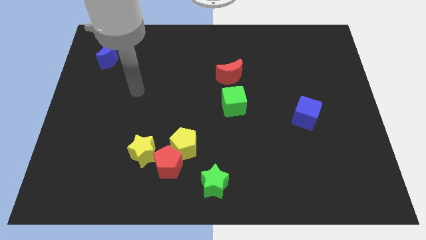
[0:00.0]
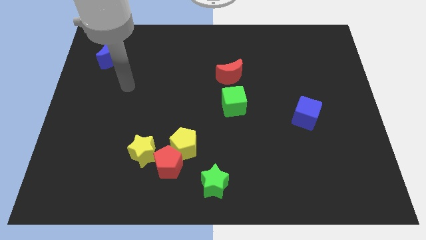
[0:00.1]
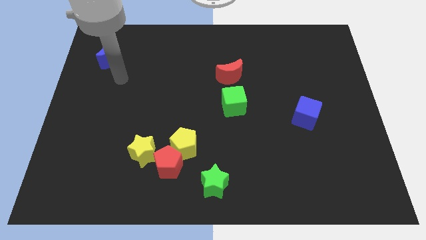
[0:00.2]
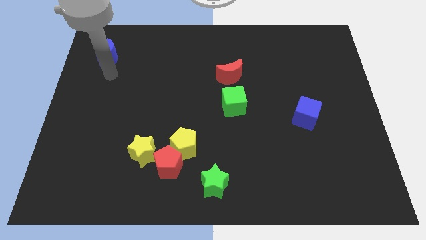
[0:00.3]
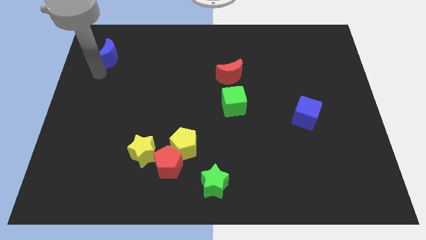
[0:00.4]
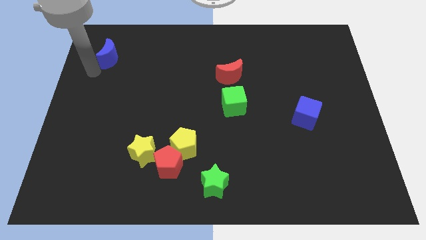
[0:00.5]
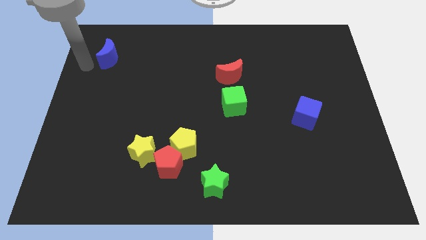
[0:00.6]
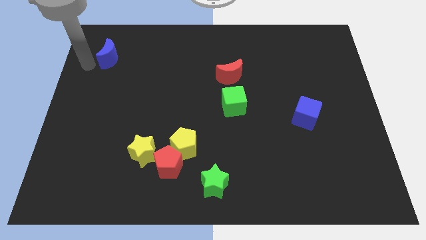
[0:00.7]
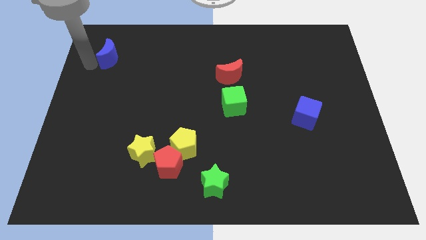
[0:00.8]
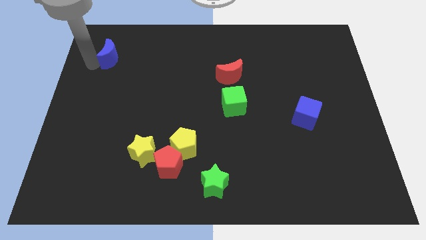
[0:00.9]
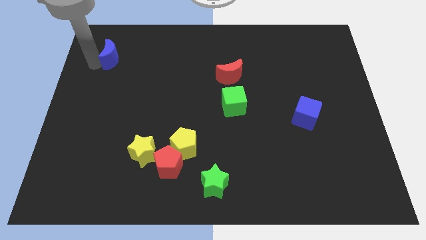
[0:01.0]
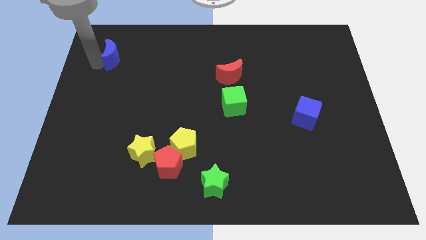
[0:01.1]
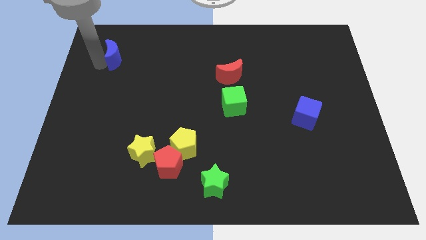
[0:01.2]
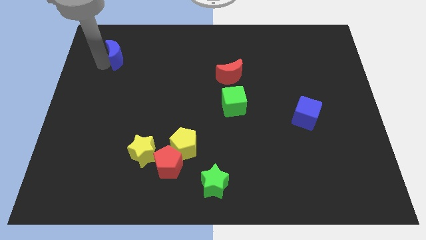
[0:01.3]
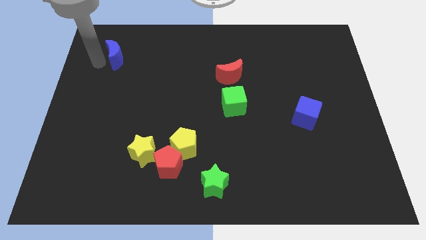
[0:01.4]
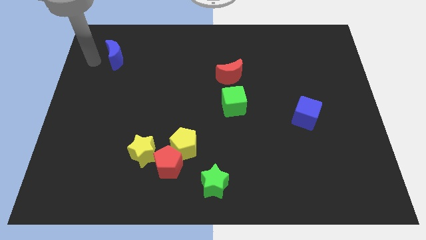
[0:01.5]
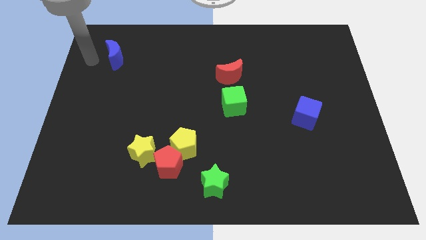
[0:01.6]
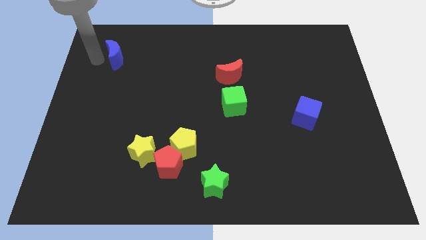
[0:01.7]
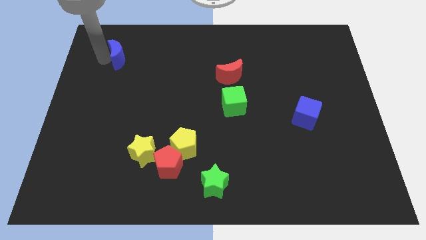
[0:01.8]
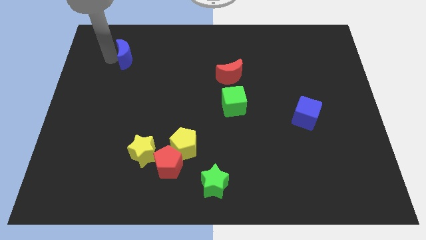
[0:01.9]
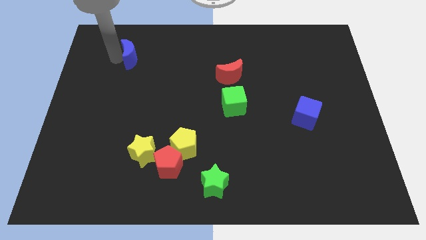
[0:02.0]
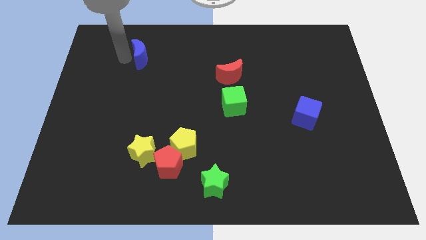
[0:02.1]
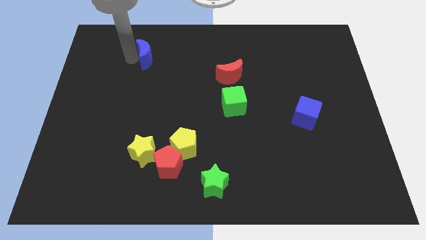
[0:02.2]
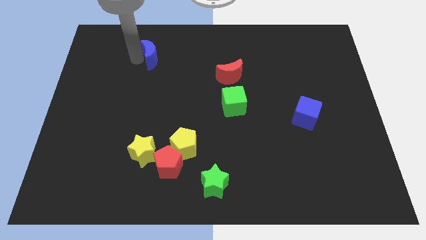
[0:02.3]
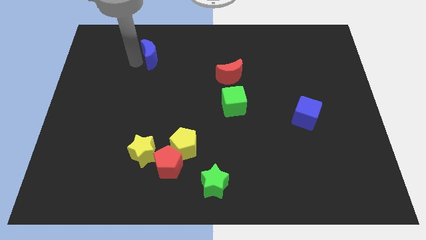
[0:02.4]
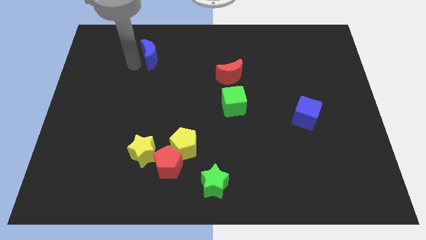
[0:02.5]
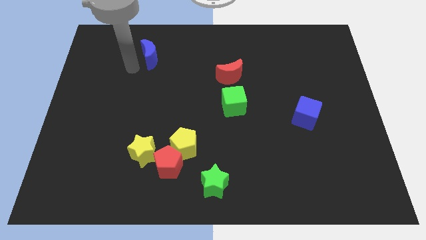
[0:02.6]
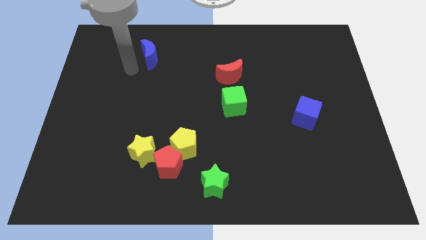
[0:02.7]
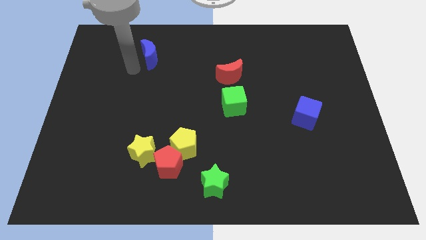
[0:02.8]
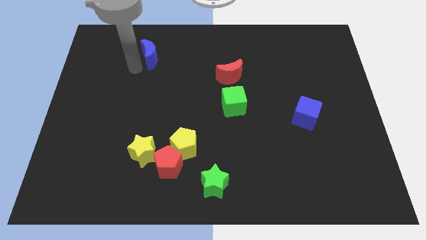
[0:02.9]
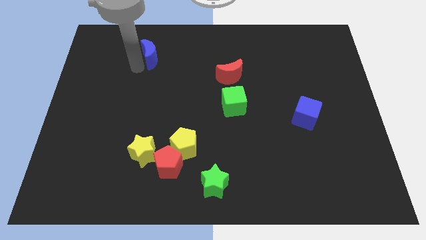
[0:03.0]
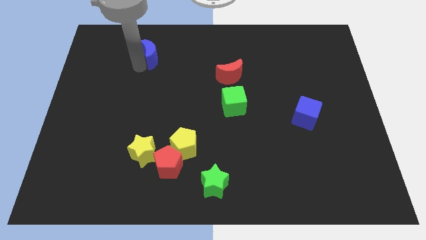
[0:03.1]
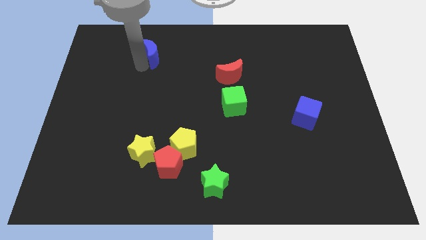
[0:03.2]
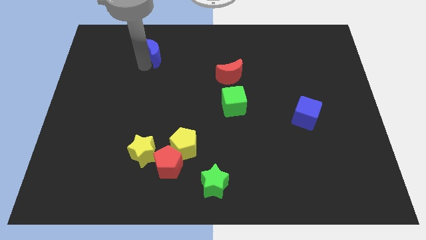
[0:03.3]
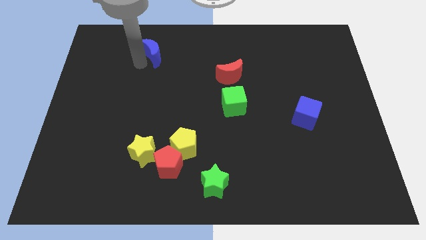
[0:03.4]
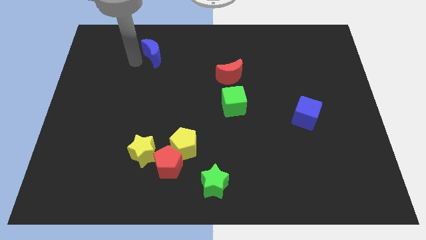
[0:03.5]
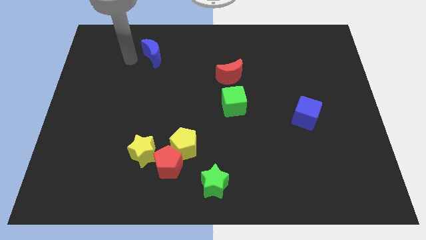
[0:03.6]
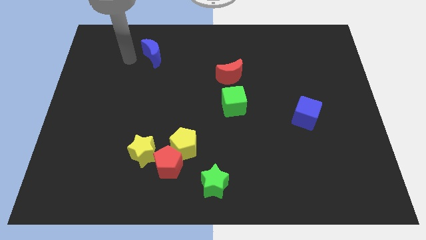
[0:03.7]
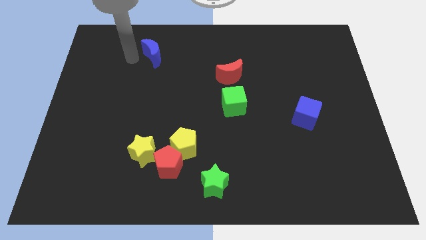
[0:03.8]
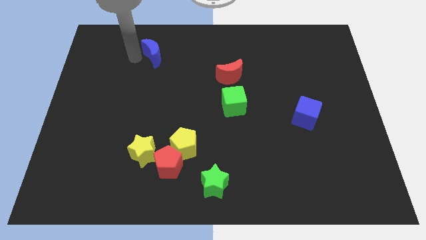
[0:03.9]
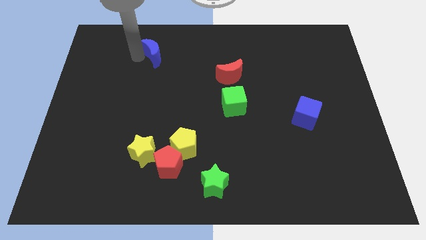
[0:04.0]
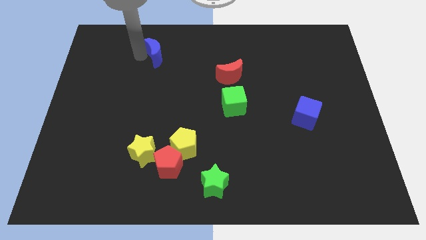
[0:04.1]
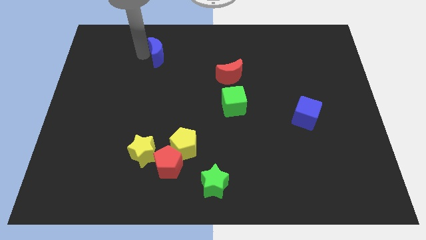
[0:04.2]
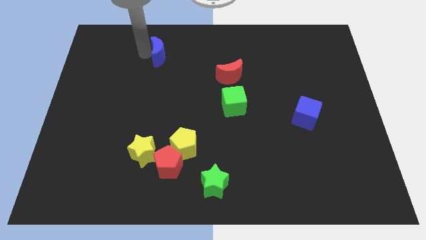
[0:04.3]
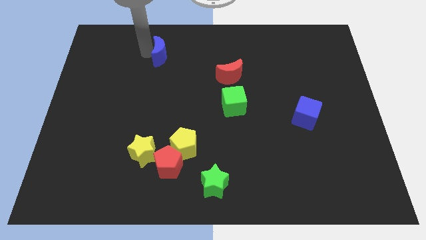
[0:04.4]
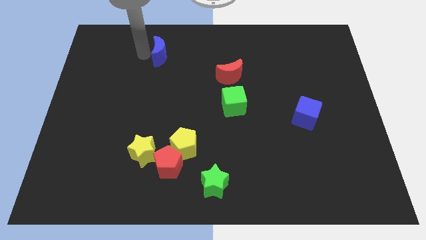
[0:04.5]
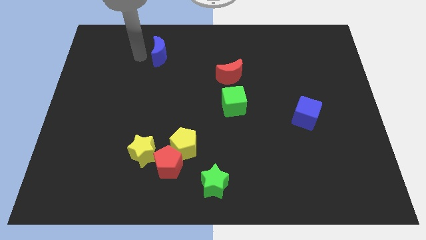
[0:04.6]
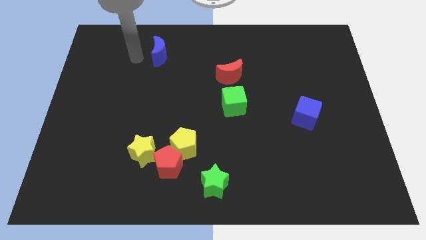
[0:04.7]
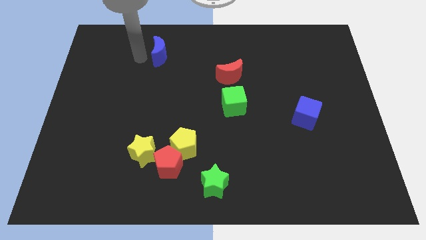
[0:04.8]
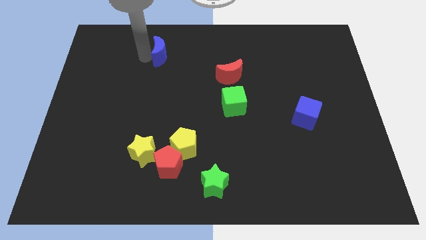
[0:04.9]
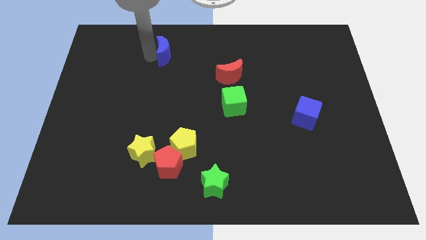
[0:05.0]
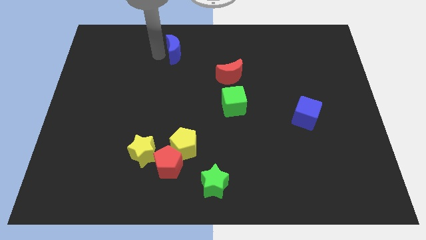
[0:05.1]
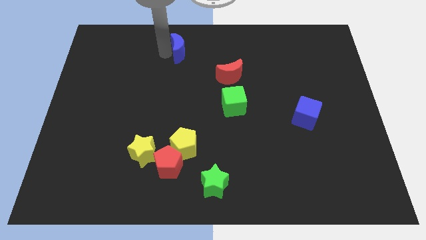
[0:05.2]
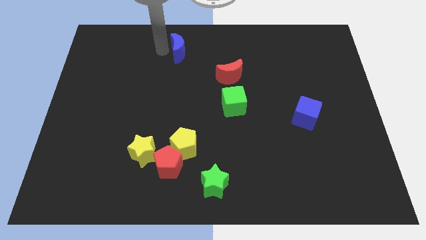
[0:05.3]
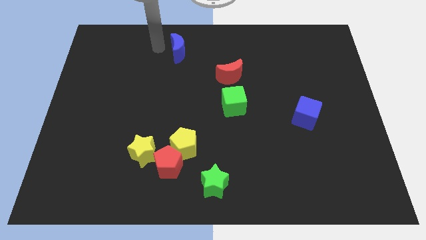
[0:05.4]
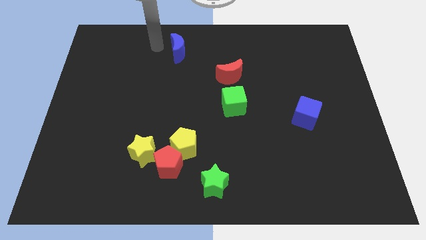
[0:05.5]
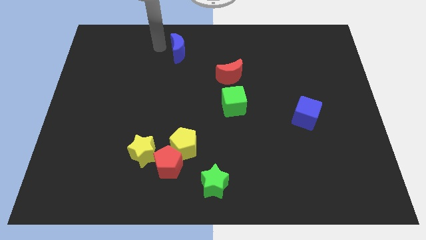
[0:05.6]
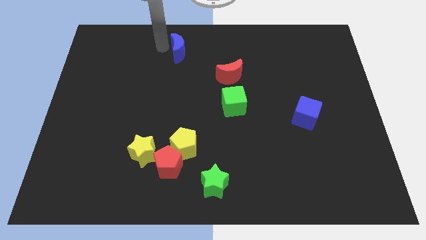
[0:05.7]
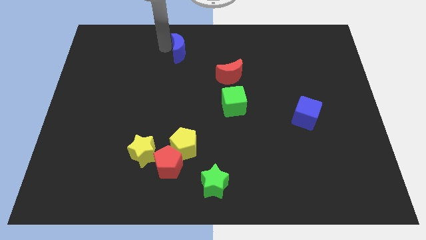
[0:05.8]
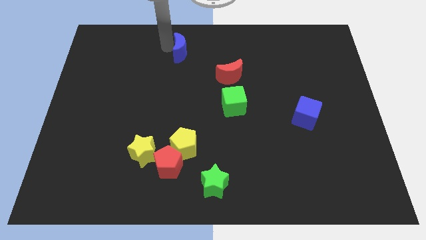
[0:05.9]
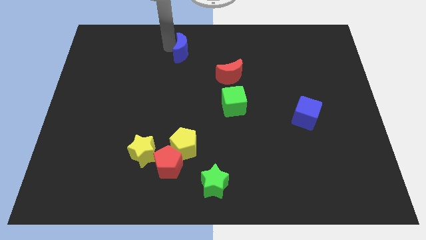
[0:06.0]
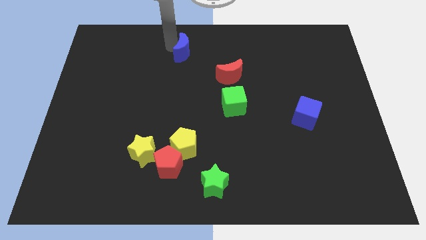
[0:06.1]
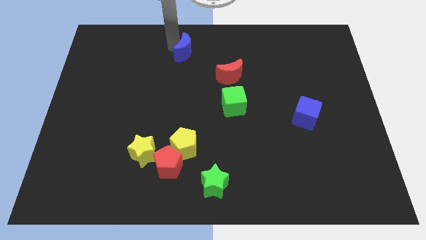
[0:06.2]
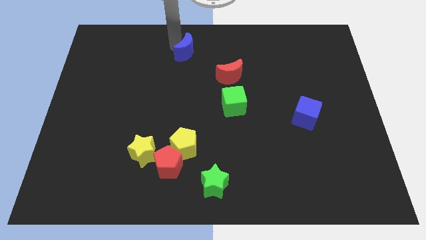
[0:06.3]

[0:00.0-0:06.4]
move the blue moon right

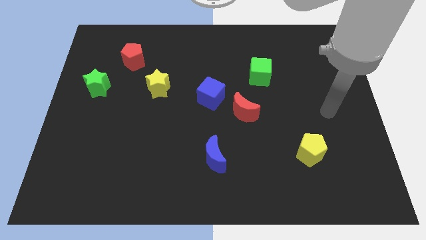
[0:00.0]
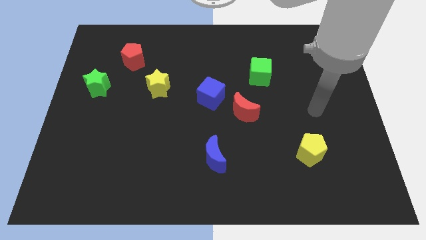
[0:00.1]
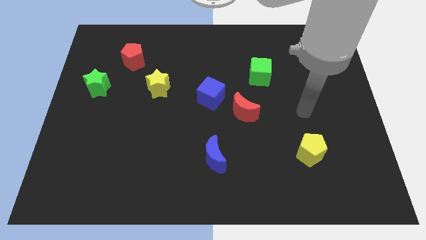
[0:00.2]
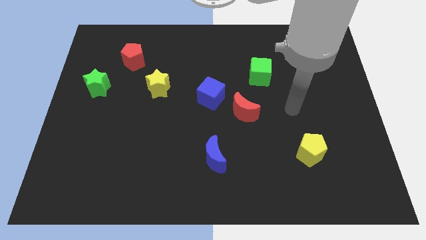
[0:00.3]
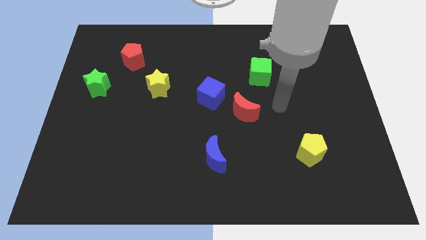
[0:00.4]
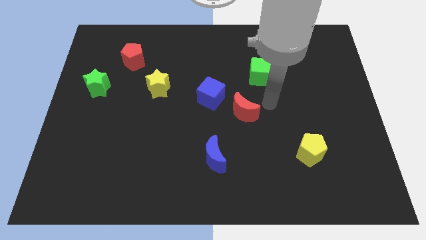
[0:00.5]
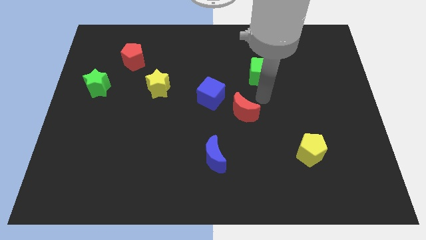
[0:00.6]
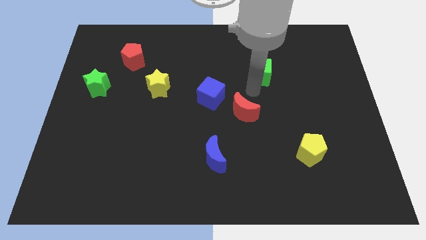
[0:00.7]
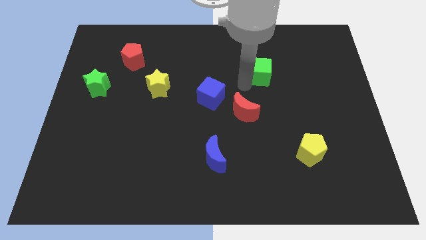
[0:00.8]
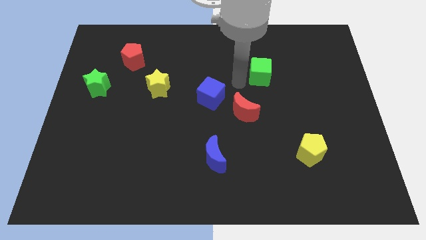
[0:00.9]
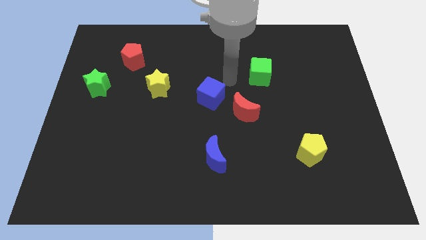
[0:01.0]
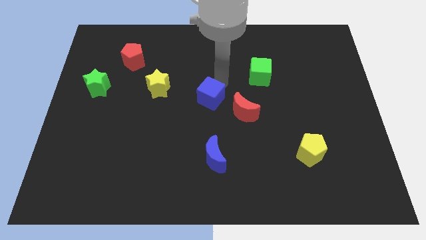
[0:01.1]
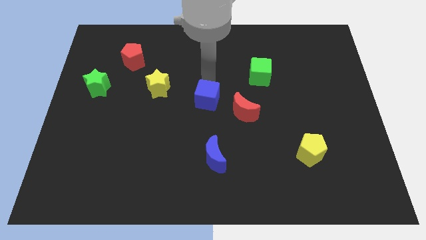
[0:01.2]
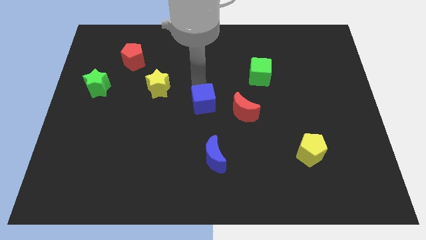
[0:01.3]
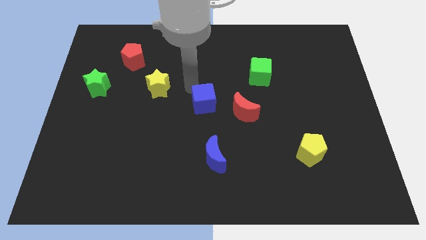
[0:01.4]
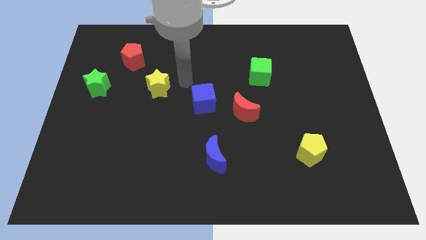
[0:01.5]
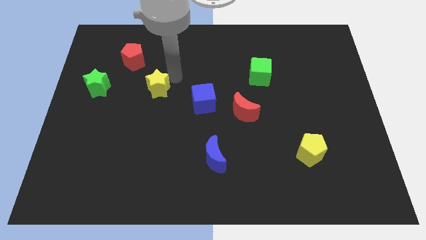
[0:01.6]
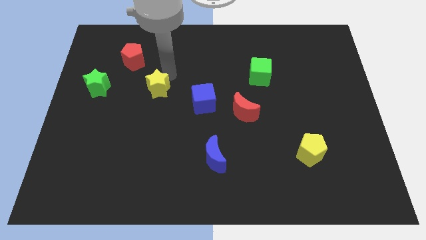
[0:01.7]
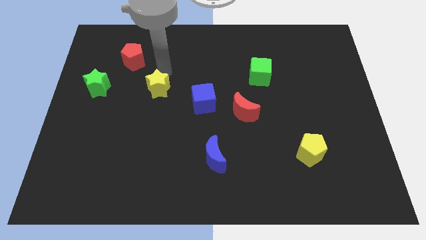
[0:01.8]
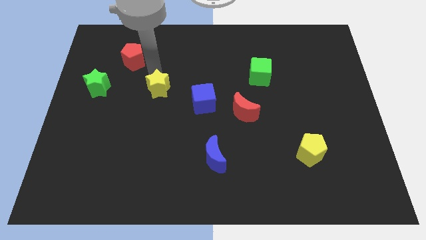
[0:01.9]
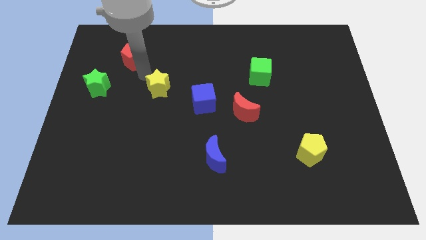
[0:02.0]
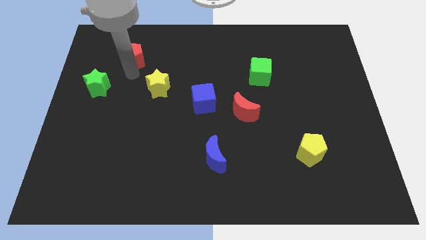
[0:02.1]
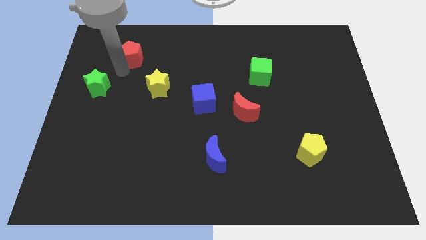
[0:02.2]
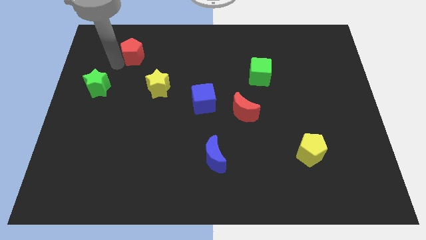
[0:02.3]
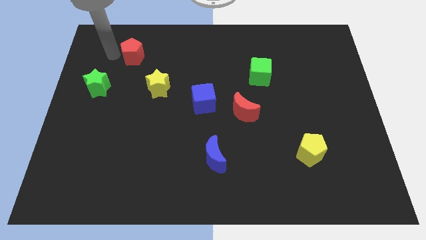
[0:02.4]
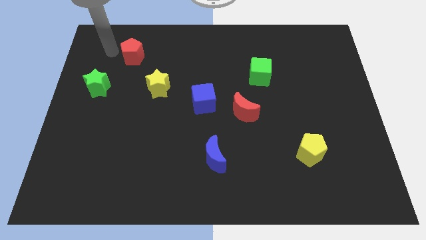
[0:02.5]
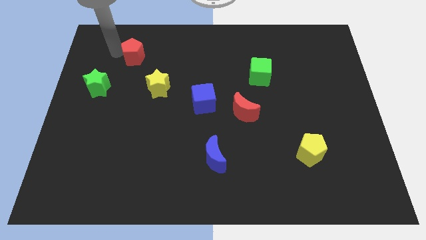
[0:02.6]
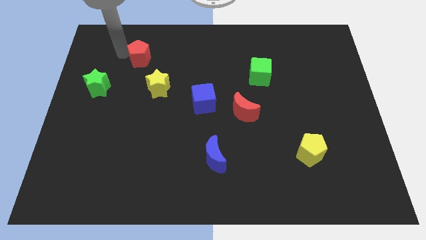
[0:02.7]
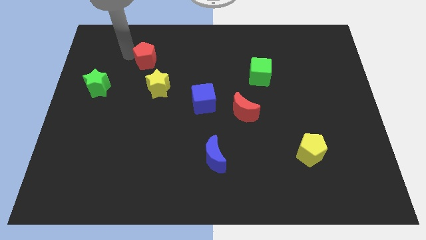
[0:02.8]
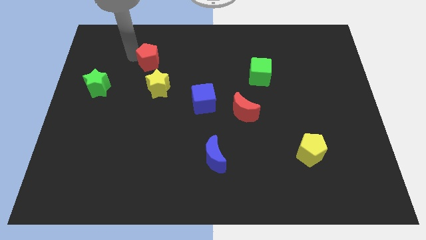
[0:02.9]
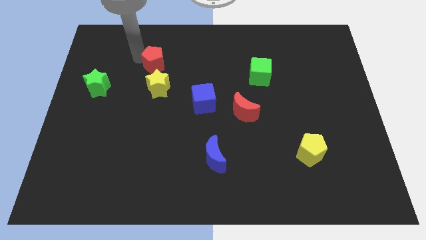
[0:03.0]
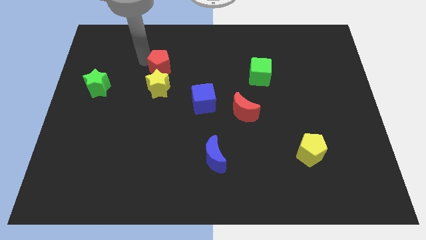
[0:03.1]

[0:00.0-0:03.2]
move the red pentagon to the right a little
